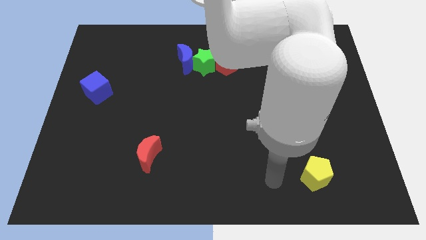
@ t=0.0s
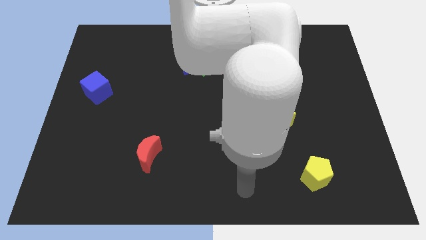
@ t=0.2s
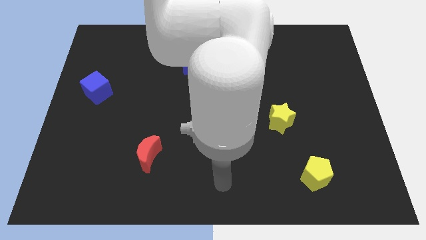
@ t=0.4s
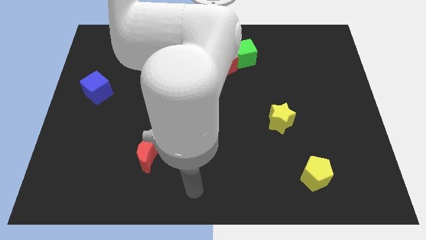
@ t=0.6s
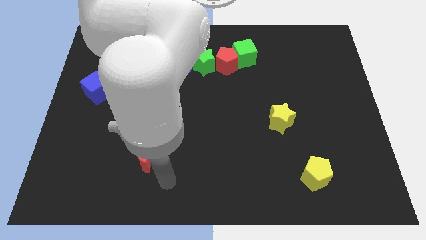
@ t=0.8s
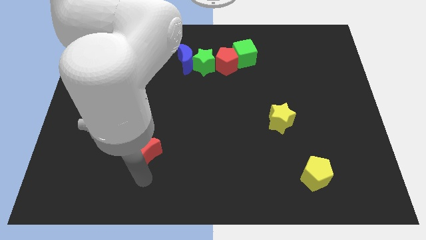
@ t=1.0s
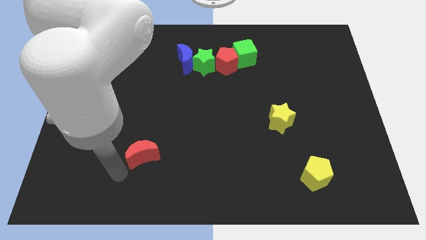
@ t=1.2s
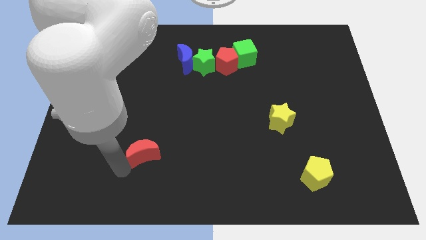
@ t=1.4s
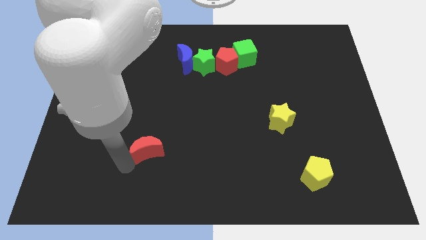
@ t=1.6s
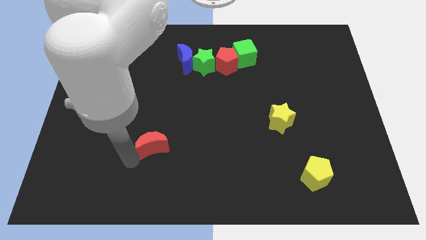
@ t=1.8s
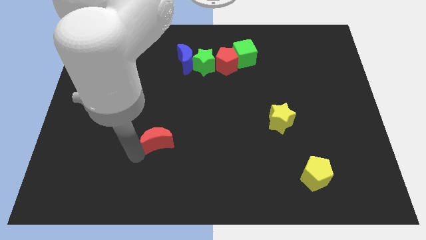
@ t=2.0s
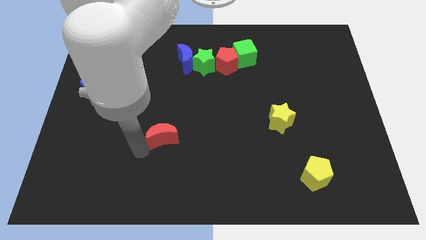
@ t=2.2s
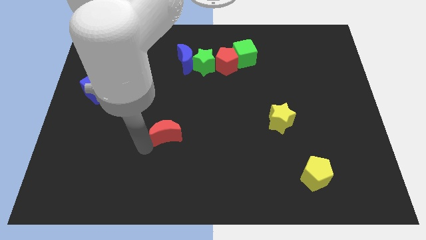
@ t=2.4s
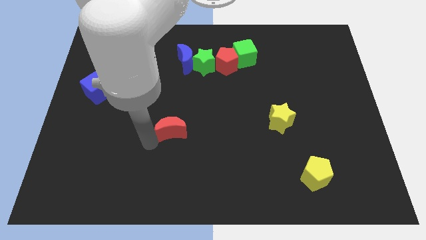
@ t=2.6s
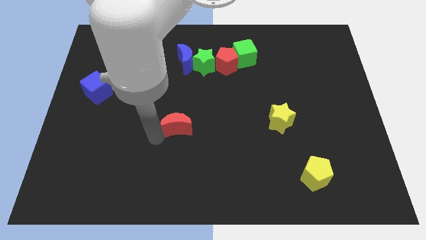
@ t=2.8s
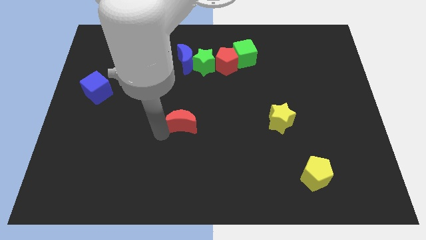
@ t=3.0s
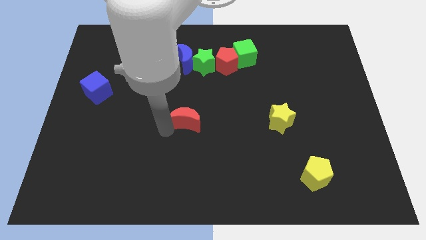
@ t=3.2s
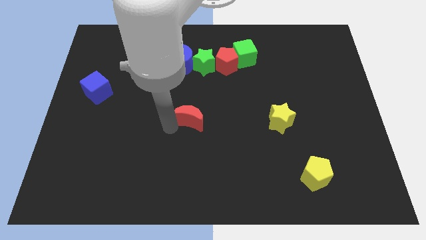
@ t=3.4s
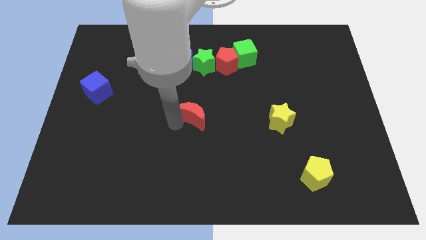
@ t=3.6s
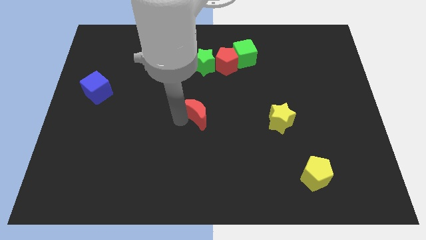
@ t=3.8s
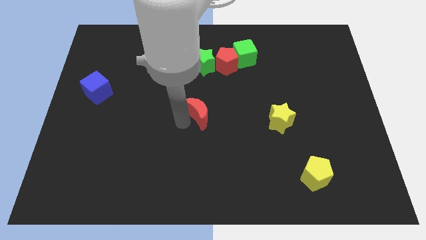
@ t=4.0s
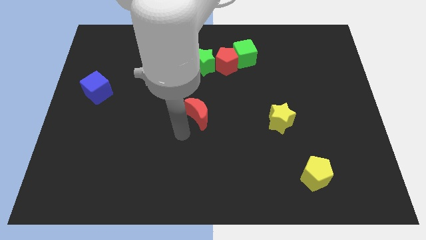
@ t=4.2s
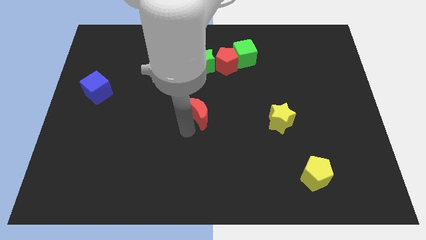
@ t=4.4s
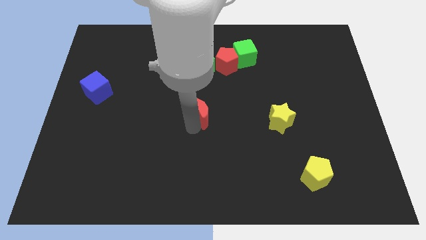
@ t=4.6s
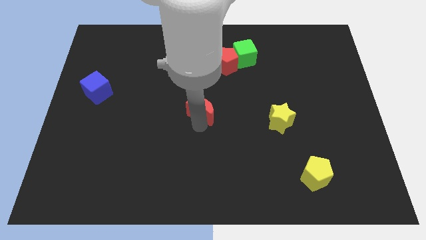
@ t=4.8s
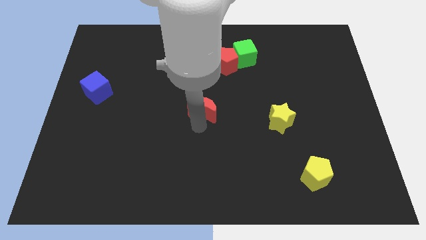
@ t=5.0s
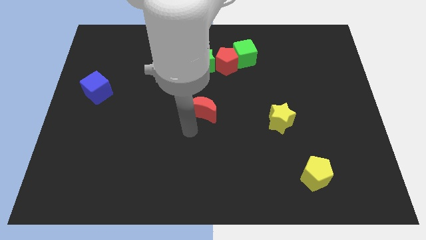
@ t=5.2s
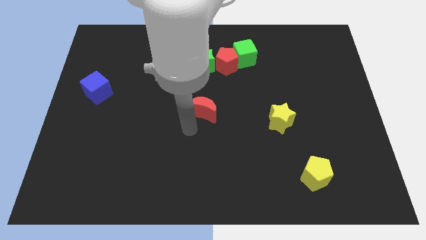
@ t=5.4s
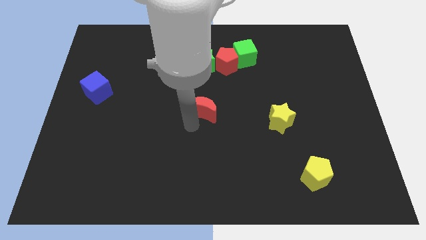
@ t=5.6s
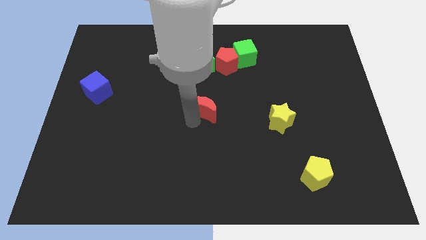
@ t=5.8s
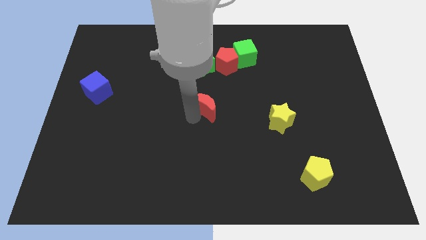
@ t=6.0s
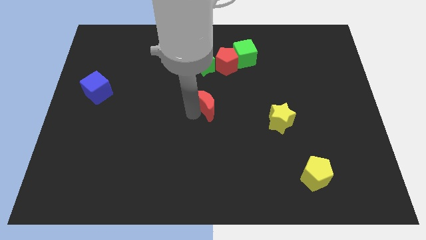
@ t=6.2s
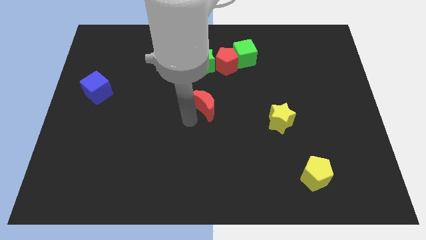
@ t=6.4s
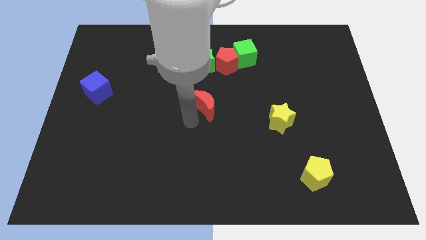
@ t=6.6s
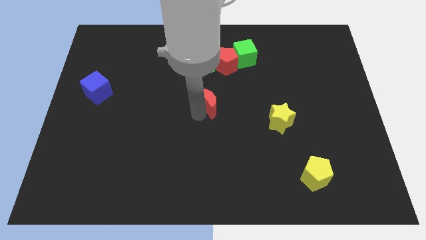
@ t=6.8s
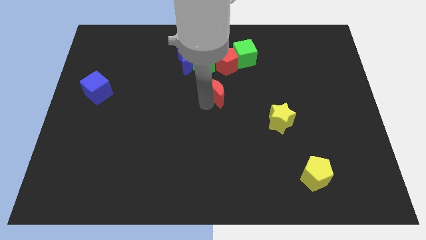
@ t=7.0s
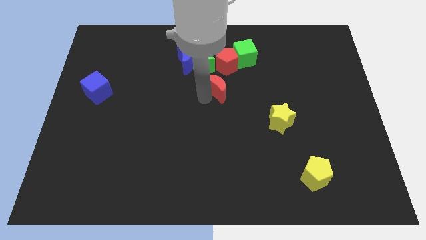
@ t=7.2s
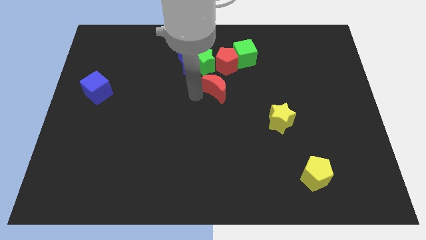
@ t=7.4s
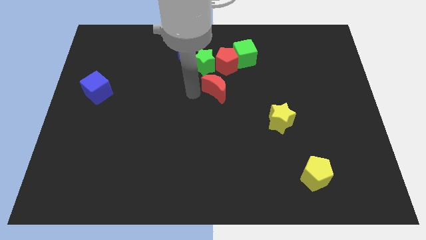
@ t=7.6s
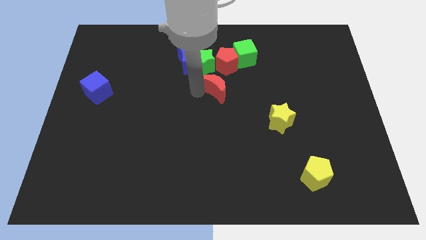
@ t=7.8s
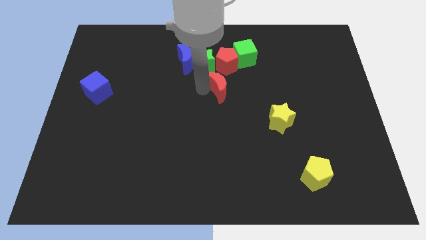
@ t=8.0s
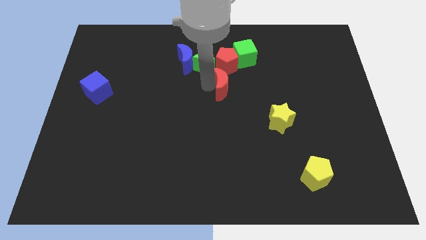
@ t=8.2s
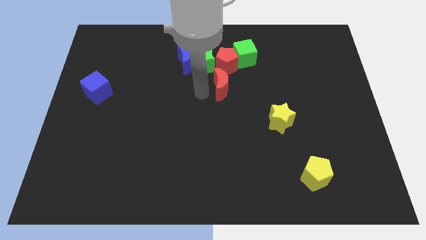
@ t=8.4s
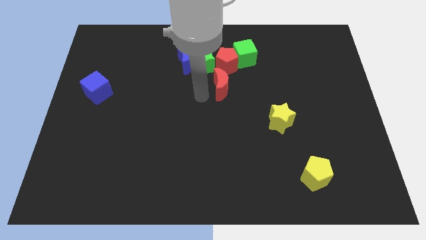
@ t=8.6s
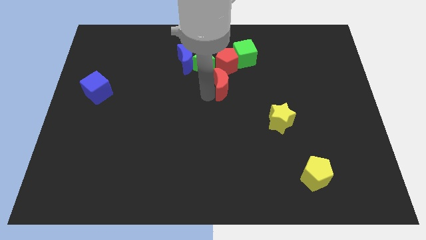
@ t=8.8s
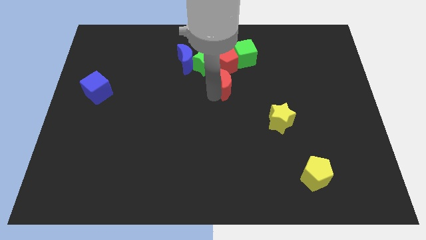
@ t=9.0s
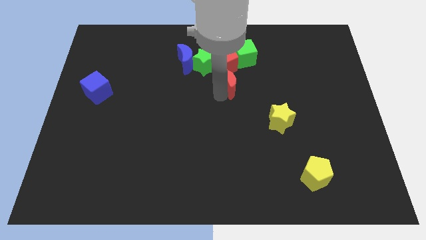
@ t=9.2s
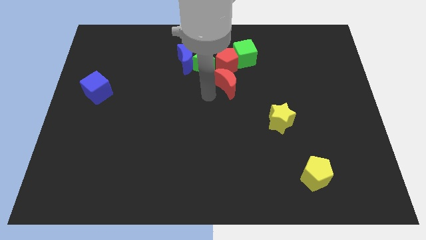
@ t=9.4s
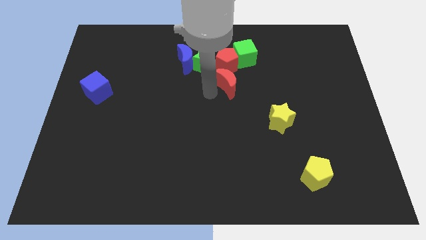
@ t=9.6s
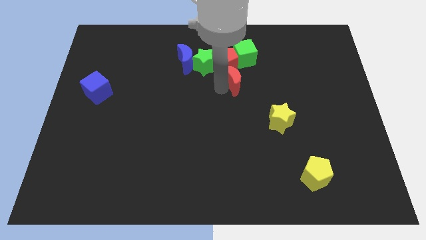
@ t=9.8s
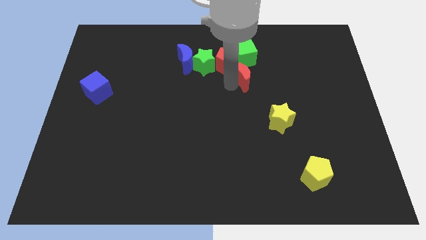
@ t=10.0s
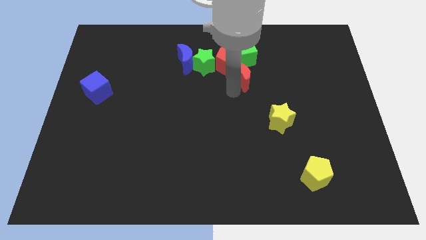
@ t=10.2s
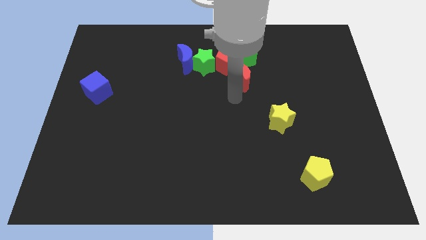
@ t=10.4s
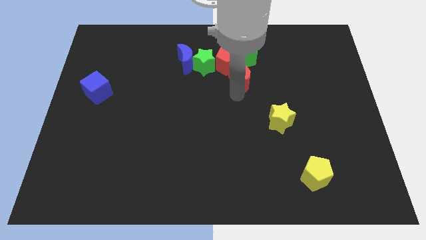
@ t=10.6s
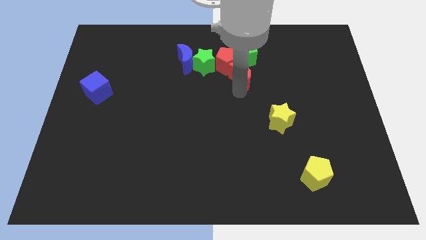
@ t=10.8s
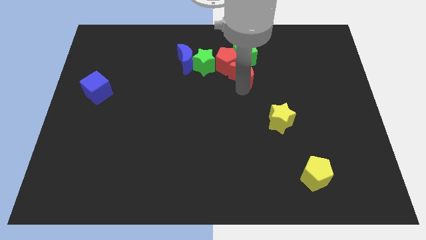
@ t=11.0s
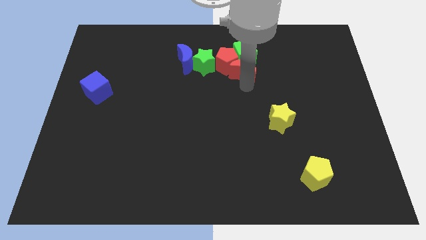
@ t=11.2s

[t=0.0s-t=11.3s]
slide the red moon to the green cube

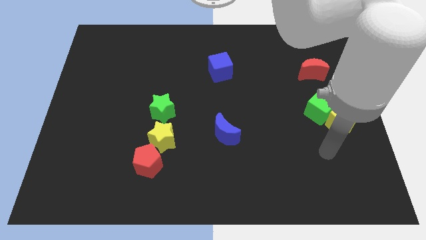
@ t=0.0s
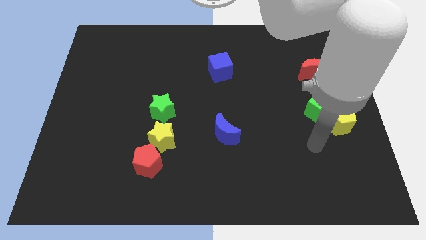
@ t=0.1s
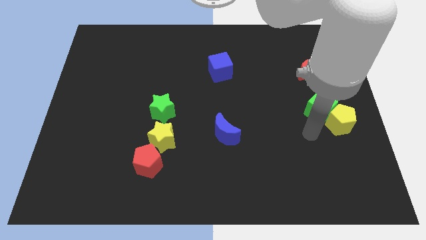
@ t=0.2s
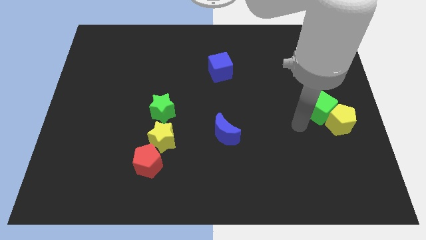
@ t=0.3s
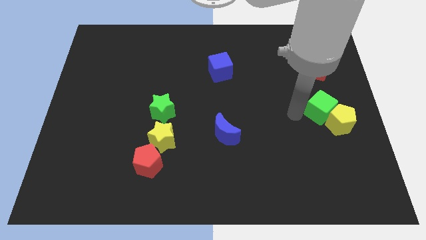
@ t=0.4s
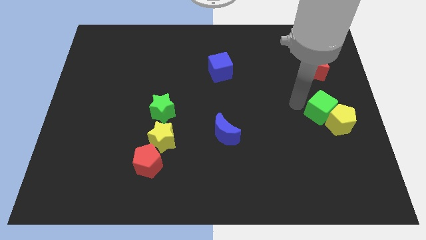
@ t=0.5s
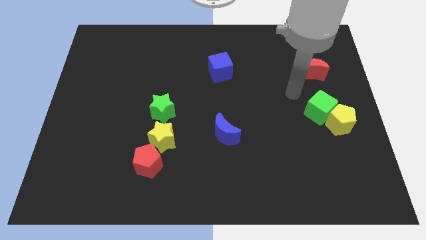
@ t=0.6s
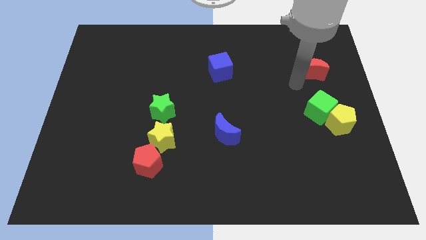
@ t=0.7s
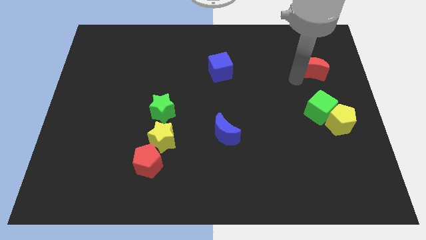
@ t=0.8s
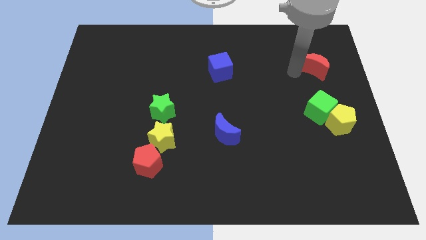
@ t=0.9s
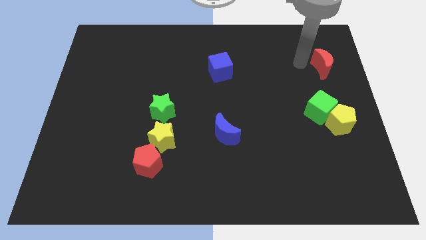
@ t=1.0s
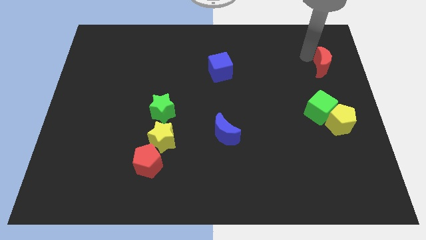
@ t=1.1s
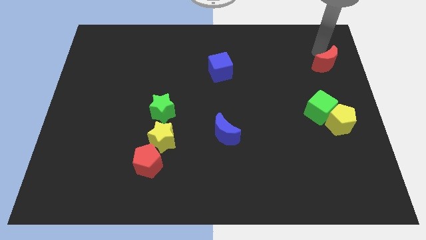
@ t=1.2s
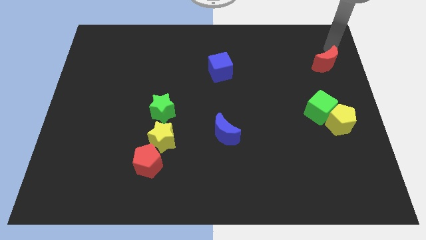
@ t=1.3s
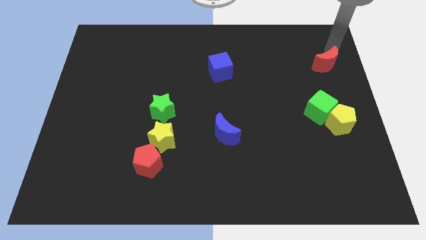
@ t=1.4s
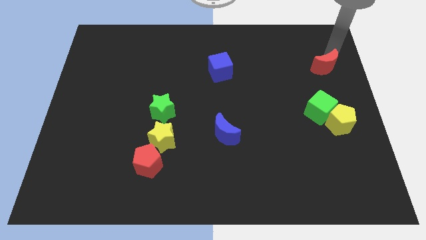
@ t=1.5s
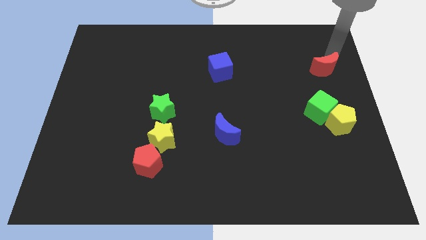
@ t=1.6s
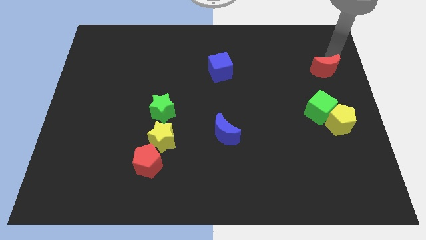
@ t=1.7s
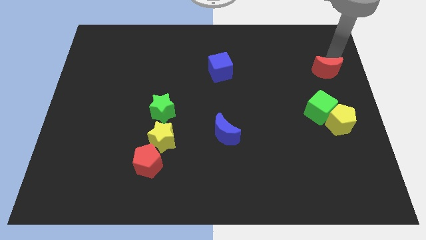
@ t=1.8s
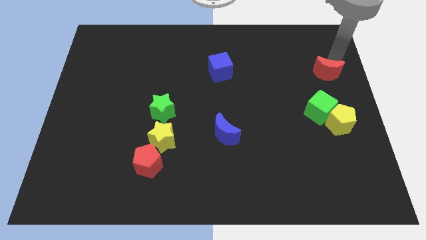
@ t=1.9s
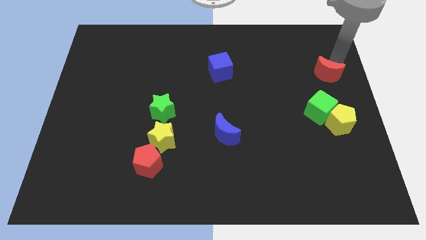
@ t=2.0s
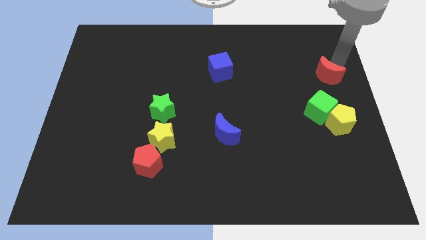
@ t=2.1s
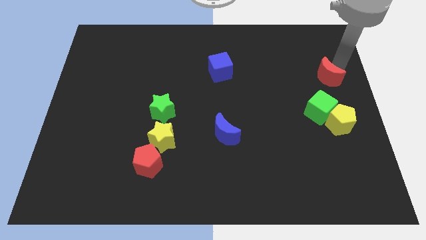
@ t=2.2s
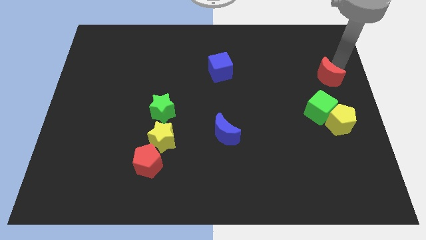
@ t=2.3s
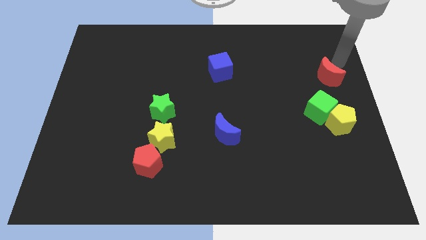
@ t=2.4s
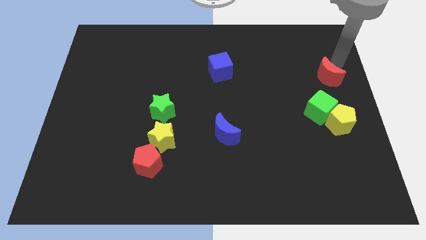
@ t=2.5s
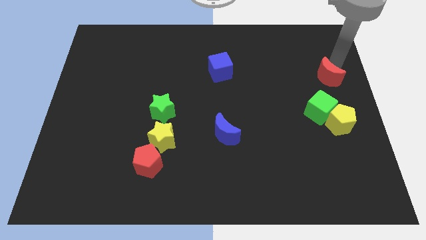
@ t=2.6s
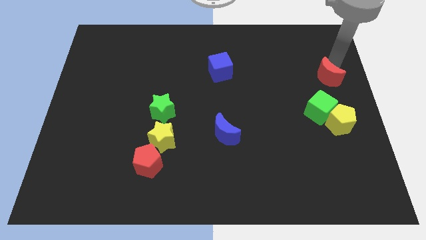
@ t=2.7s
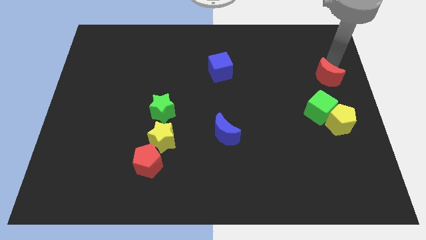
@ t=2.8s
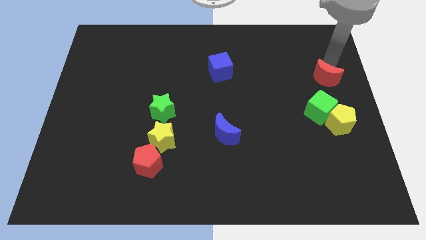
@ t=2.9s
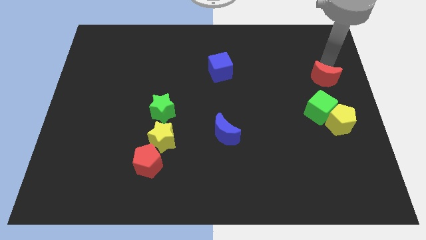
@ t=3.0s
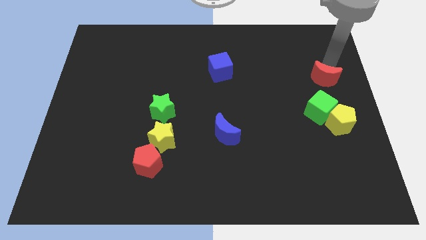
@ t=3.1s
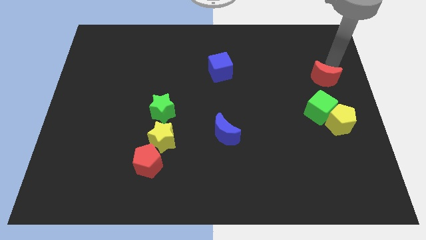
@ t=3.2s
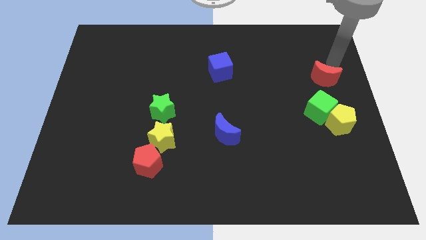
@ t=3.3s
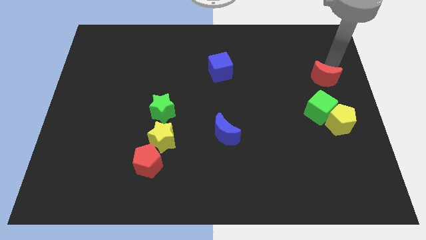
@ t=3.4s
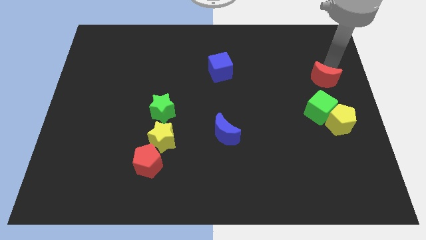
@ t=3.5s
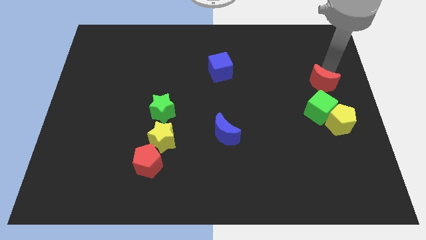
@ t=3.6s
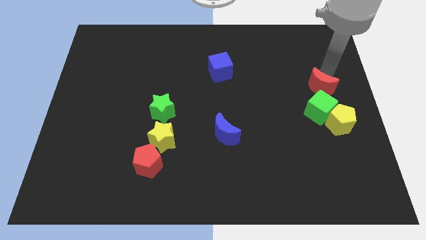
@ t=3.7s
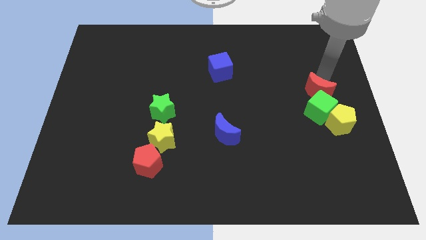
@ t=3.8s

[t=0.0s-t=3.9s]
move the red moon to the green cube
